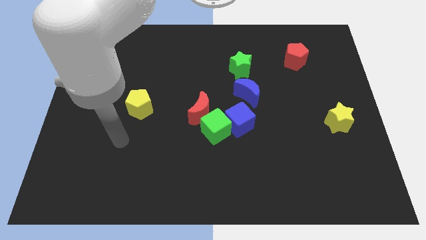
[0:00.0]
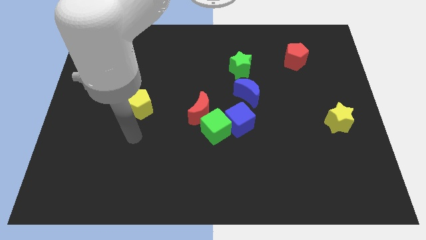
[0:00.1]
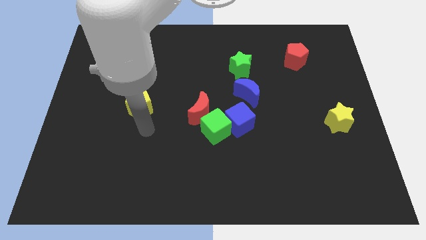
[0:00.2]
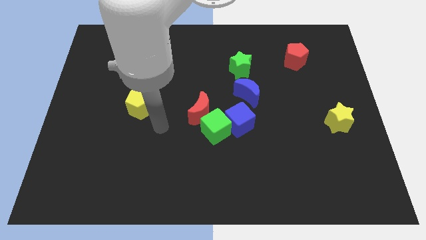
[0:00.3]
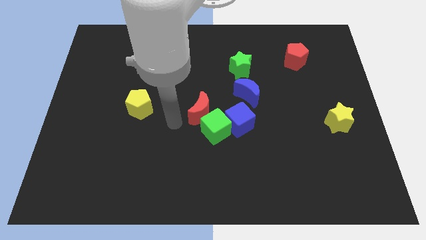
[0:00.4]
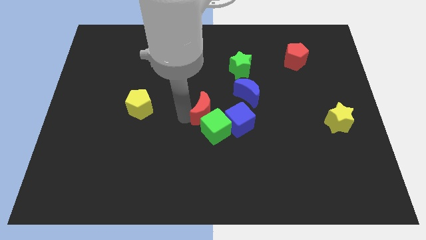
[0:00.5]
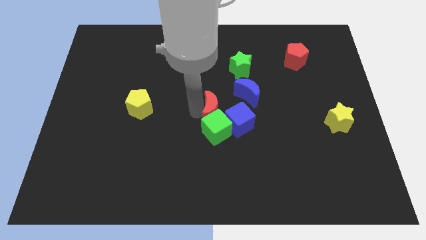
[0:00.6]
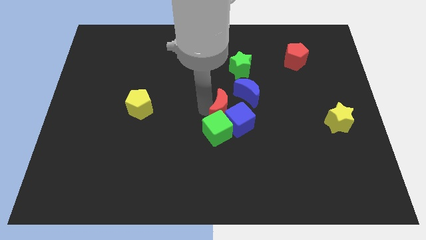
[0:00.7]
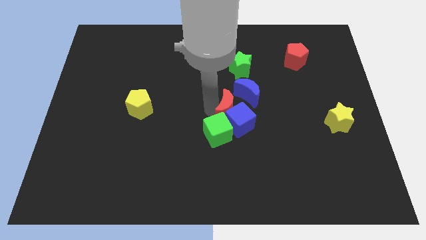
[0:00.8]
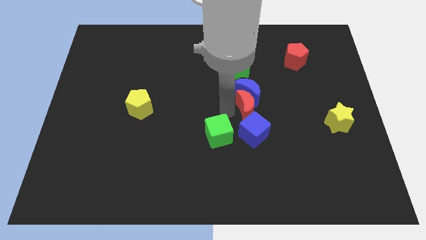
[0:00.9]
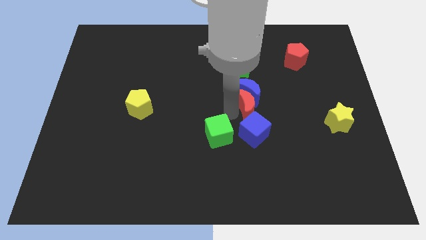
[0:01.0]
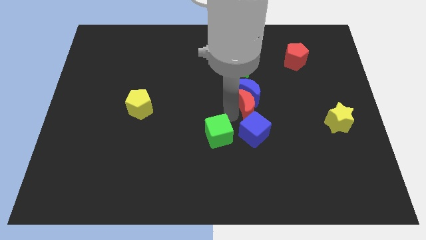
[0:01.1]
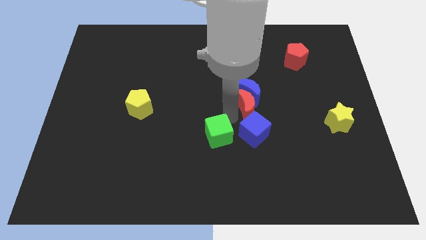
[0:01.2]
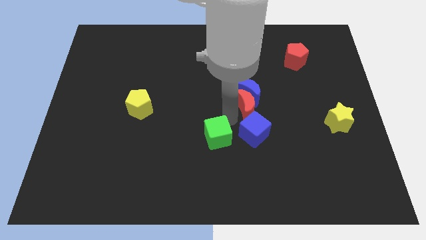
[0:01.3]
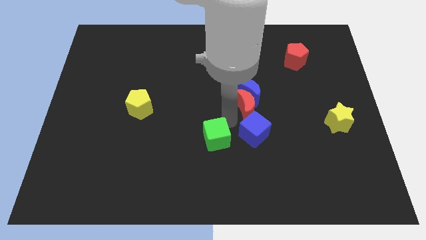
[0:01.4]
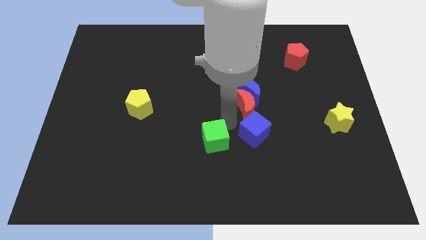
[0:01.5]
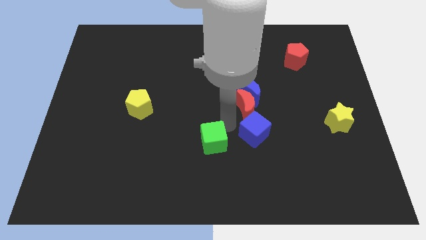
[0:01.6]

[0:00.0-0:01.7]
pull the green cube apart from the blue cube and red moon

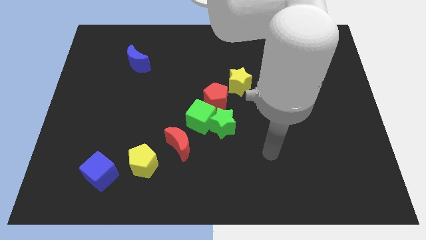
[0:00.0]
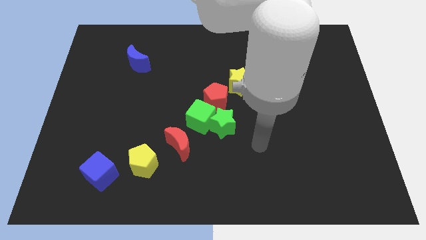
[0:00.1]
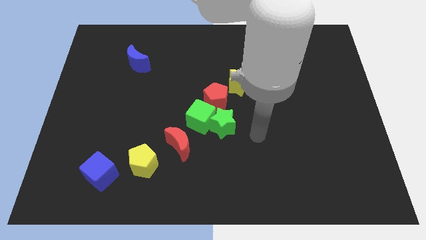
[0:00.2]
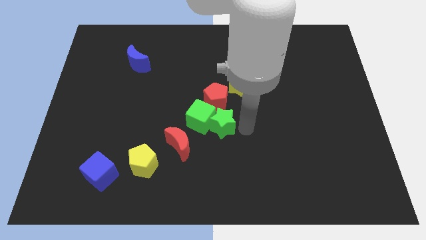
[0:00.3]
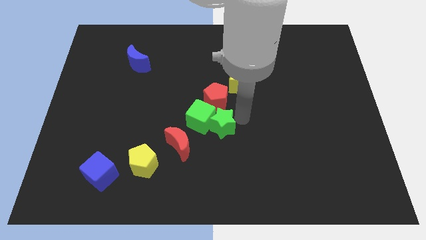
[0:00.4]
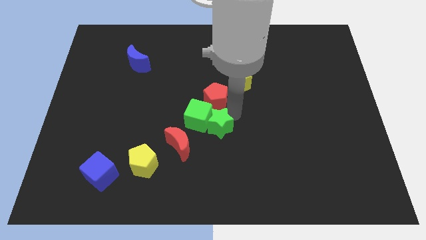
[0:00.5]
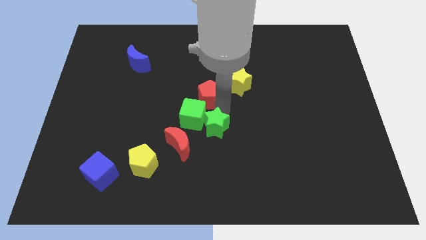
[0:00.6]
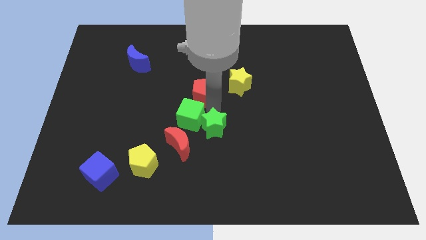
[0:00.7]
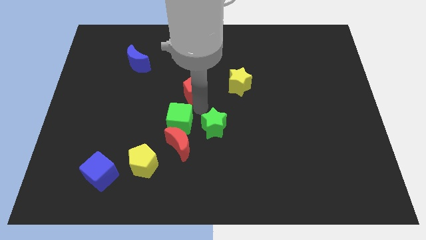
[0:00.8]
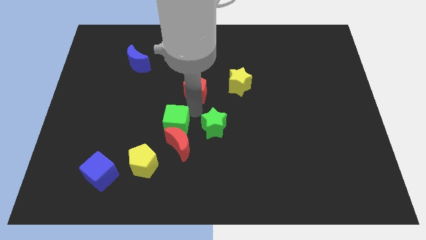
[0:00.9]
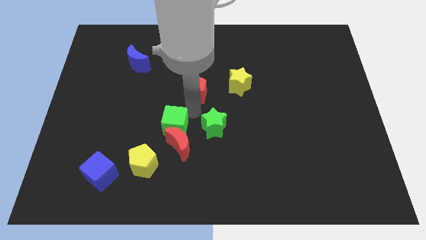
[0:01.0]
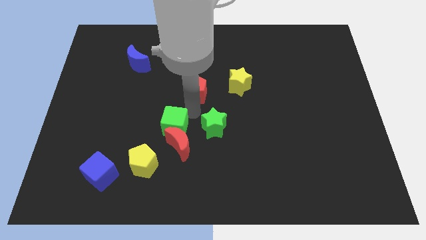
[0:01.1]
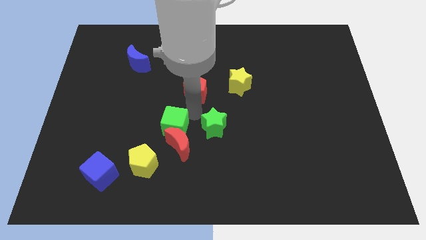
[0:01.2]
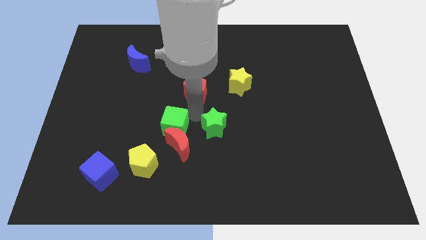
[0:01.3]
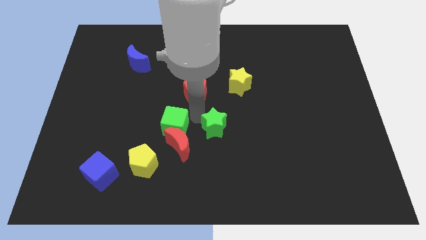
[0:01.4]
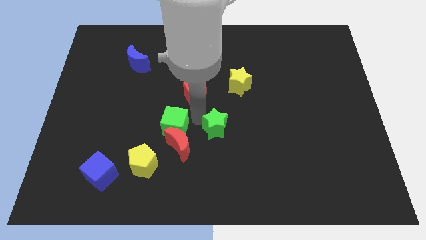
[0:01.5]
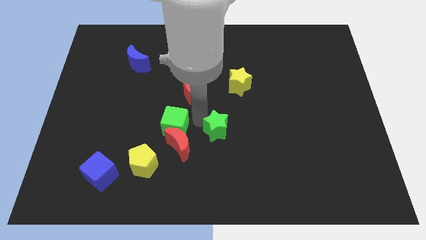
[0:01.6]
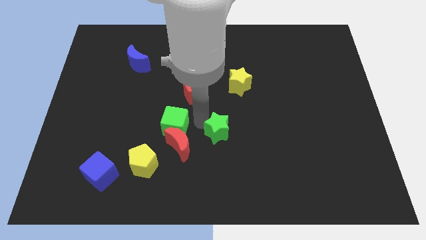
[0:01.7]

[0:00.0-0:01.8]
separate the green star from the green cube and red pentagon

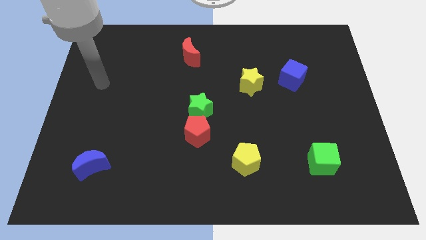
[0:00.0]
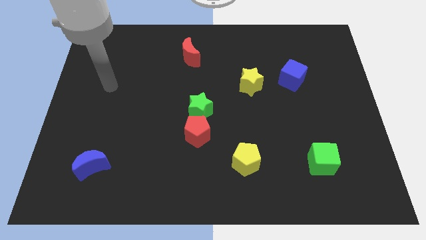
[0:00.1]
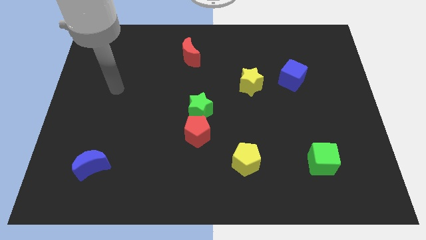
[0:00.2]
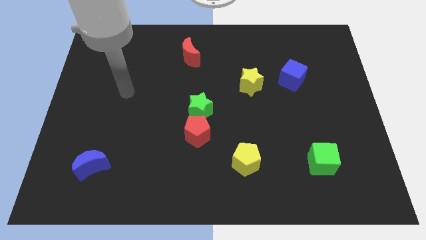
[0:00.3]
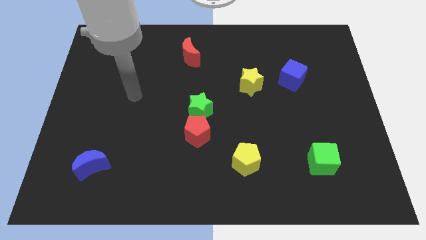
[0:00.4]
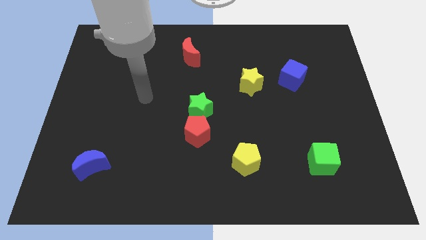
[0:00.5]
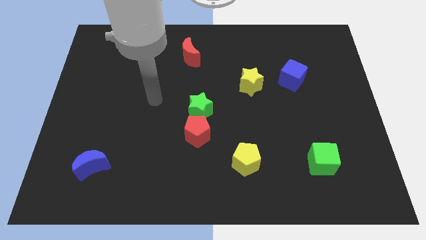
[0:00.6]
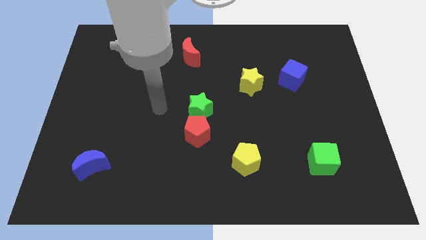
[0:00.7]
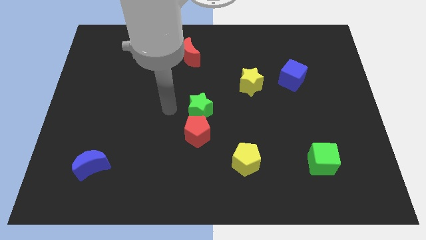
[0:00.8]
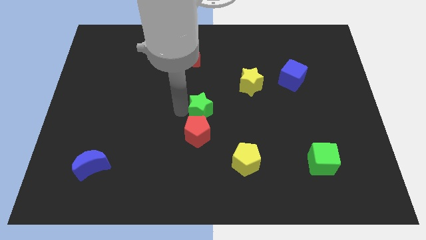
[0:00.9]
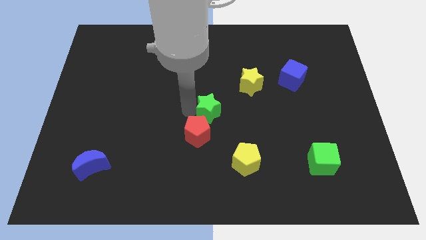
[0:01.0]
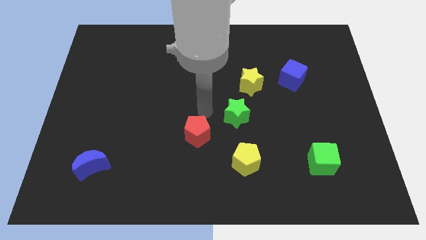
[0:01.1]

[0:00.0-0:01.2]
move the red pentagon away from the green star

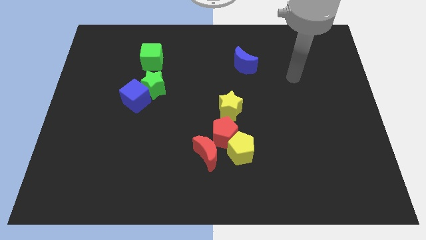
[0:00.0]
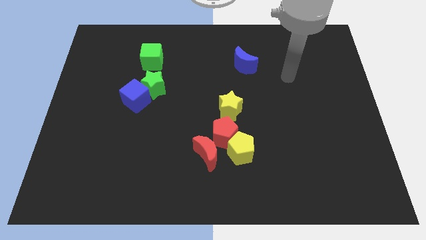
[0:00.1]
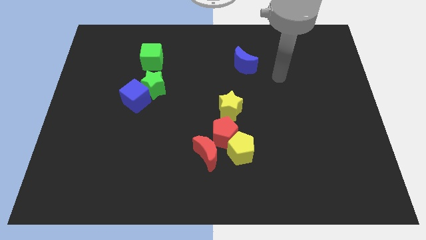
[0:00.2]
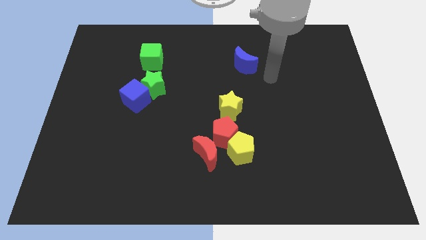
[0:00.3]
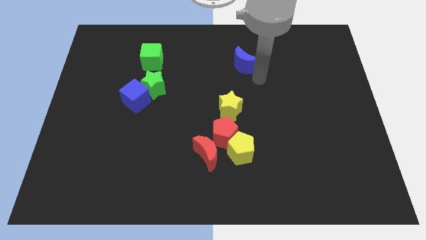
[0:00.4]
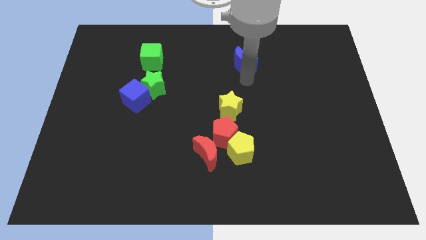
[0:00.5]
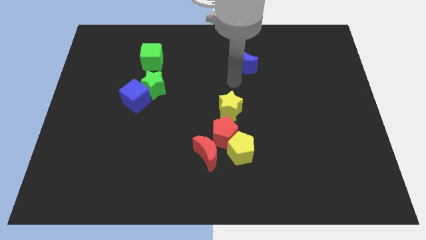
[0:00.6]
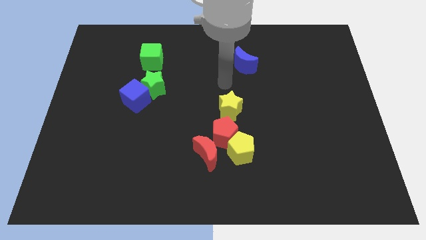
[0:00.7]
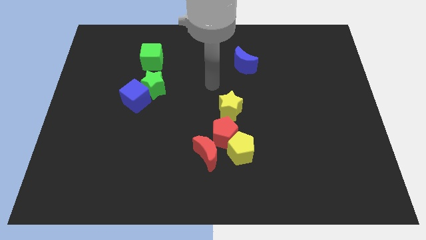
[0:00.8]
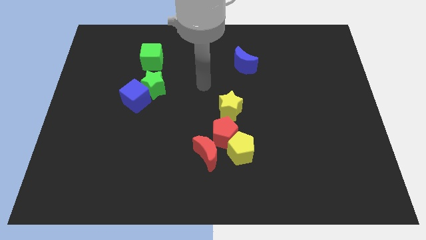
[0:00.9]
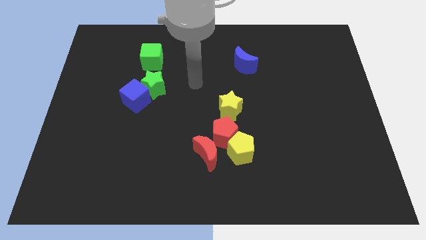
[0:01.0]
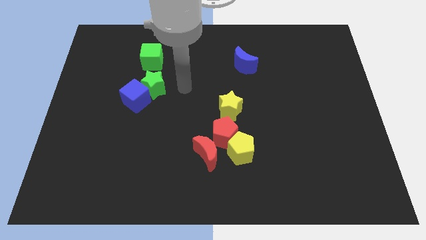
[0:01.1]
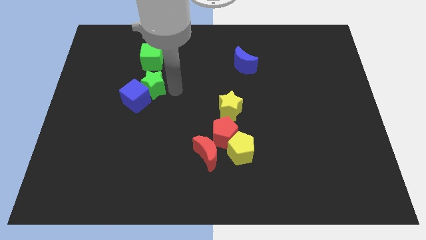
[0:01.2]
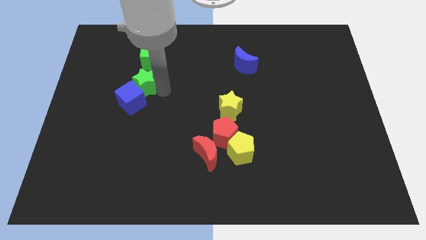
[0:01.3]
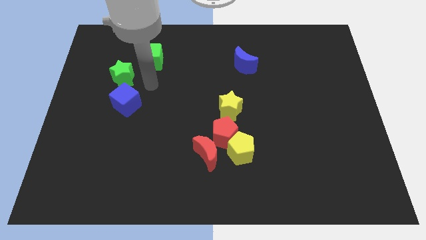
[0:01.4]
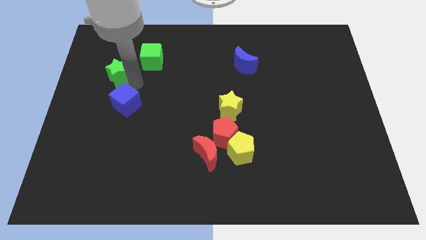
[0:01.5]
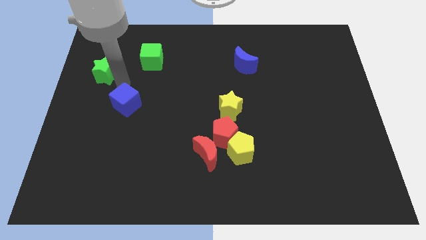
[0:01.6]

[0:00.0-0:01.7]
move the blue cube away from the green star

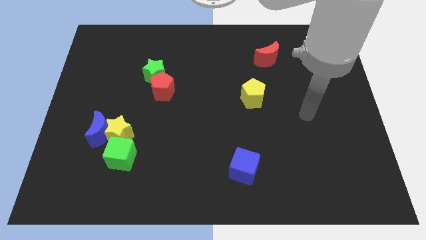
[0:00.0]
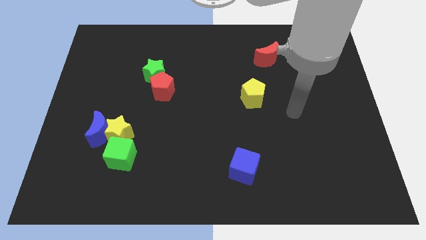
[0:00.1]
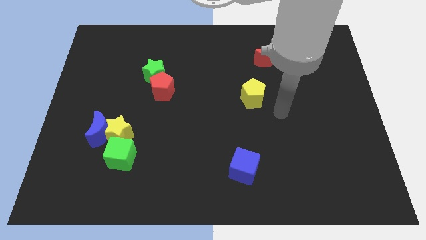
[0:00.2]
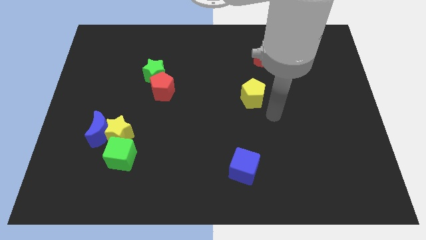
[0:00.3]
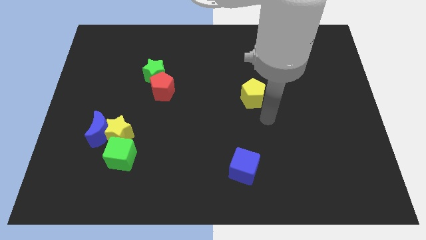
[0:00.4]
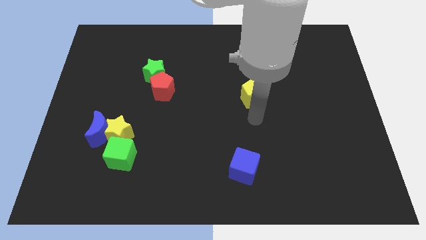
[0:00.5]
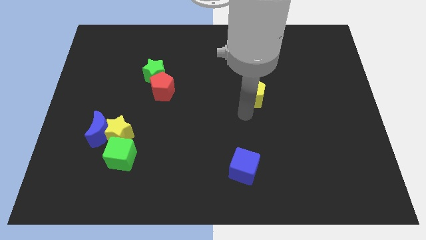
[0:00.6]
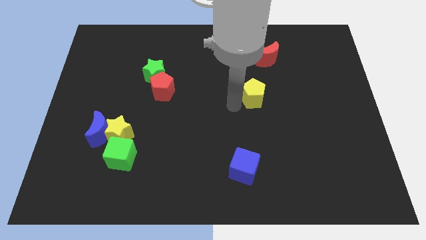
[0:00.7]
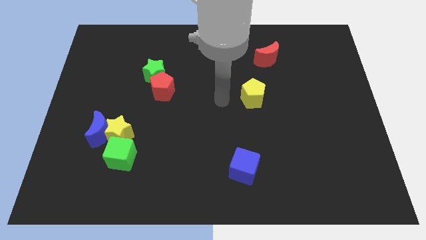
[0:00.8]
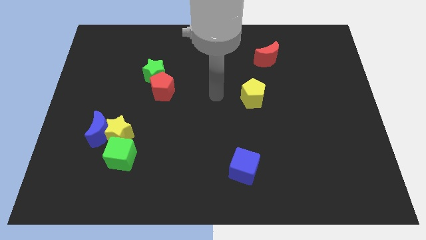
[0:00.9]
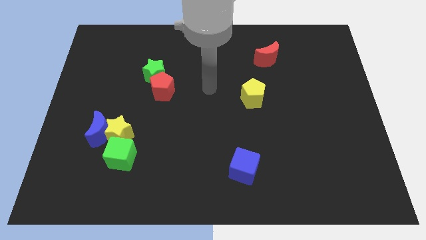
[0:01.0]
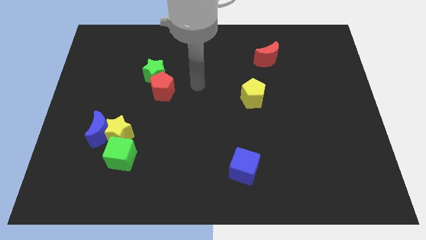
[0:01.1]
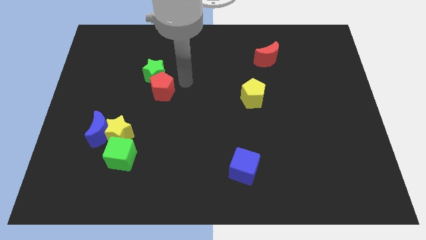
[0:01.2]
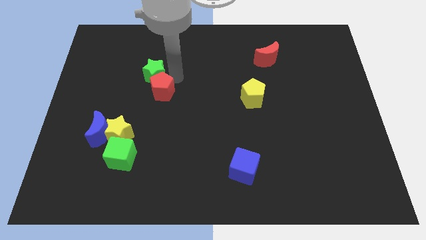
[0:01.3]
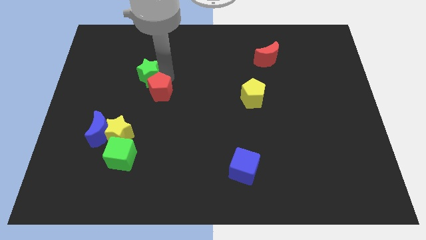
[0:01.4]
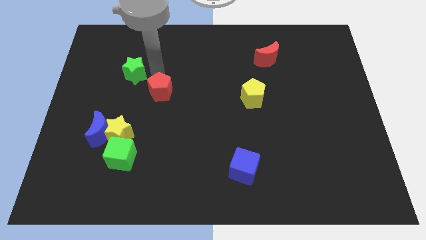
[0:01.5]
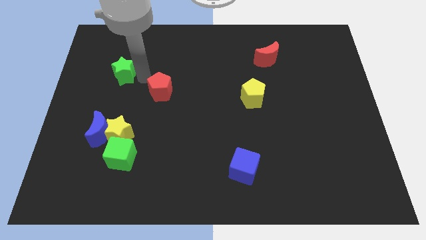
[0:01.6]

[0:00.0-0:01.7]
separate the red pentagon from the green star

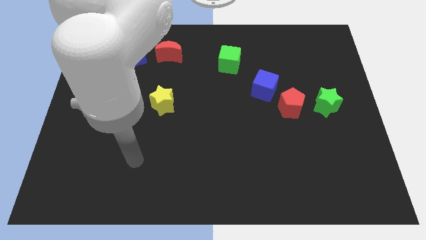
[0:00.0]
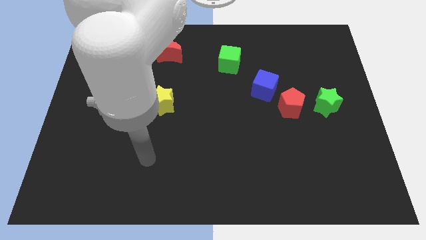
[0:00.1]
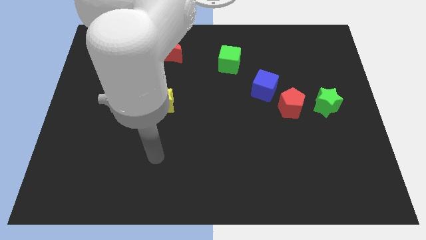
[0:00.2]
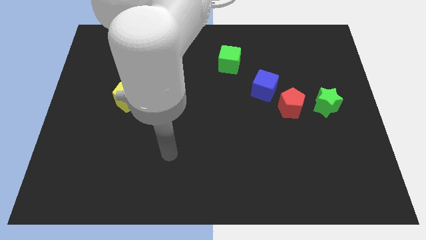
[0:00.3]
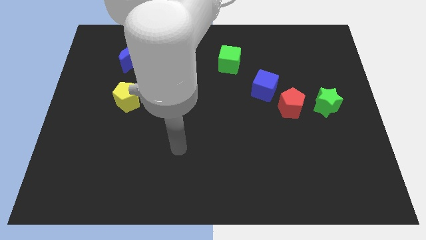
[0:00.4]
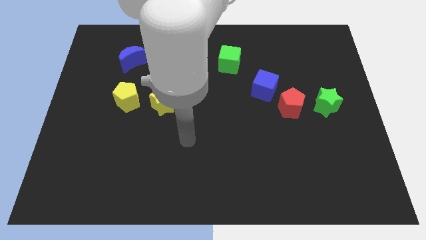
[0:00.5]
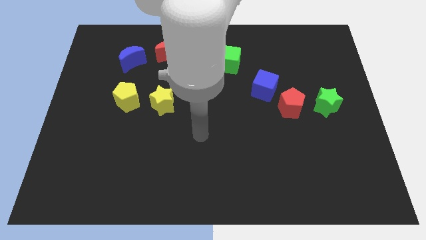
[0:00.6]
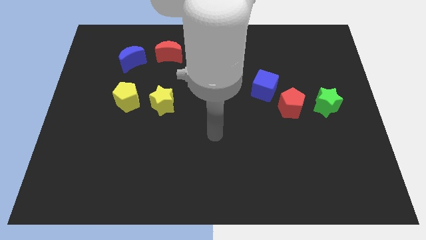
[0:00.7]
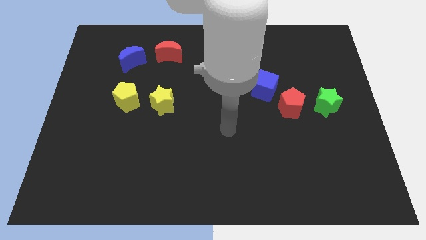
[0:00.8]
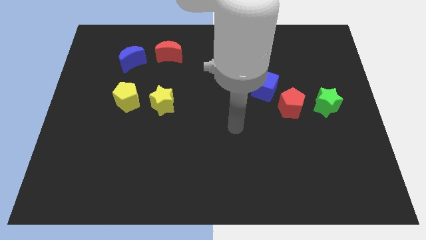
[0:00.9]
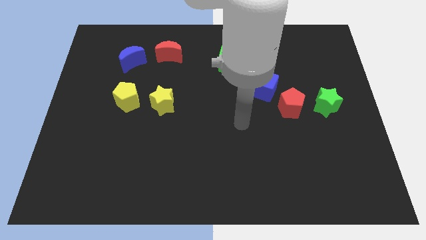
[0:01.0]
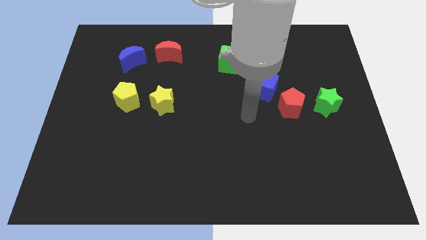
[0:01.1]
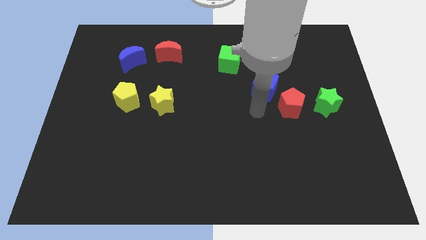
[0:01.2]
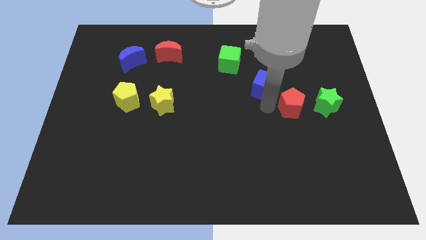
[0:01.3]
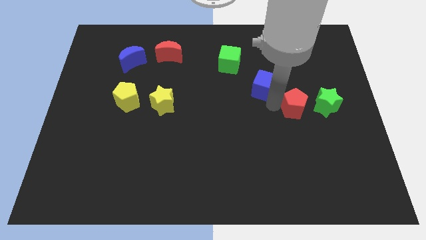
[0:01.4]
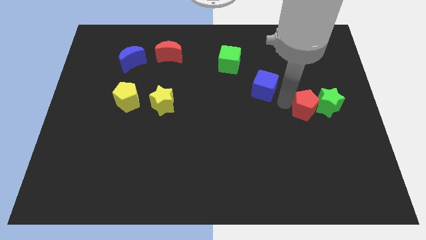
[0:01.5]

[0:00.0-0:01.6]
move the blue cube away from the red pentagon
